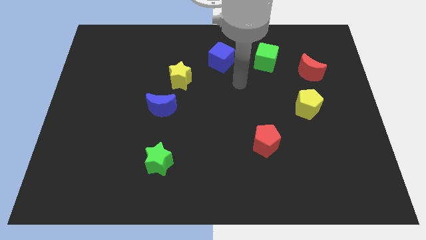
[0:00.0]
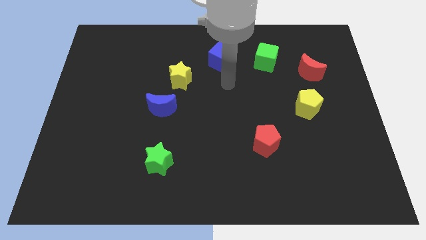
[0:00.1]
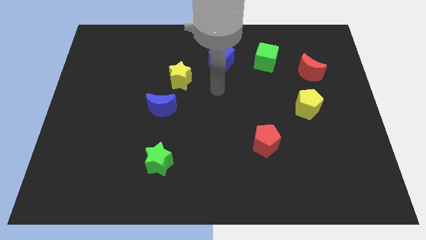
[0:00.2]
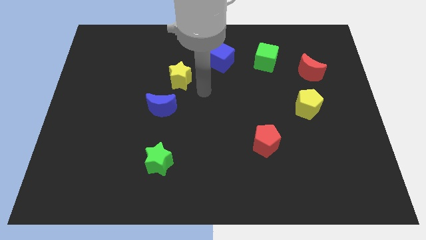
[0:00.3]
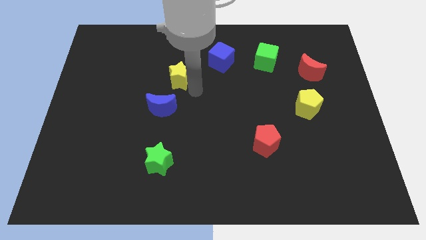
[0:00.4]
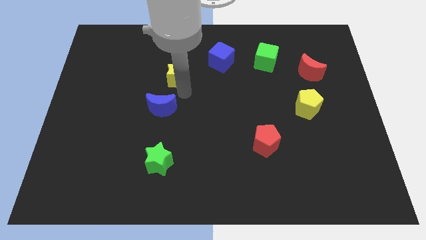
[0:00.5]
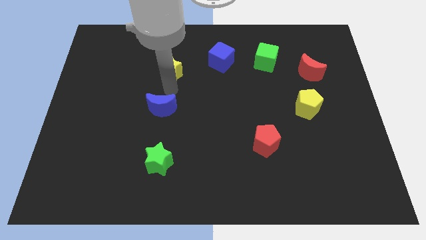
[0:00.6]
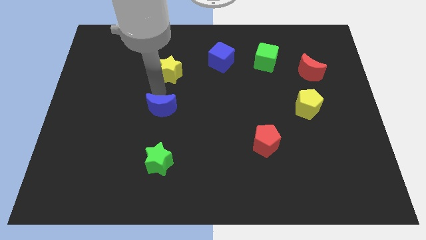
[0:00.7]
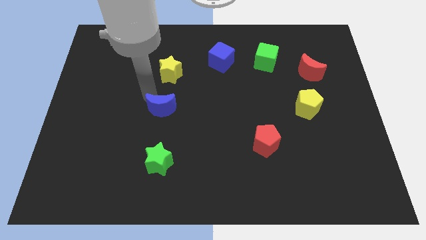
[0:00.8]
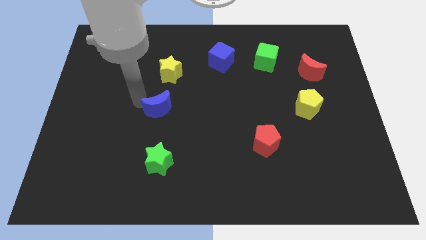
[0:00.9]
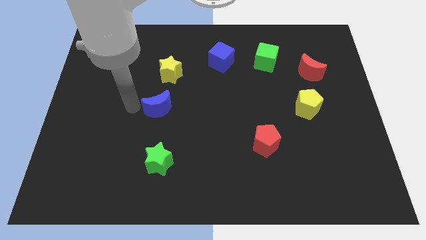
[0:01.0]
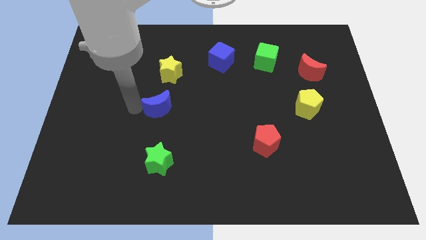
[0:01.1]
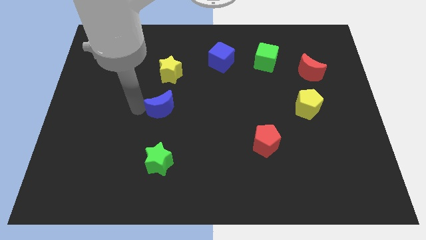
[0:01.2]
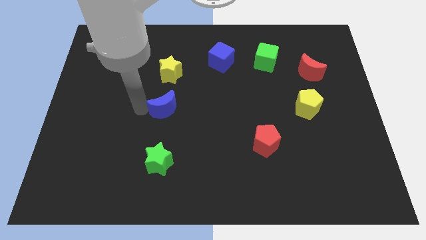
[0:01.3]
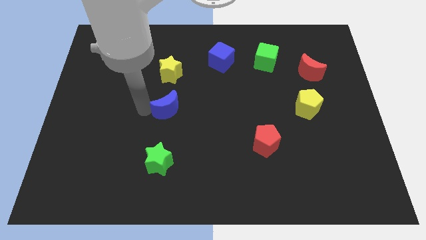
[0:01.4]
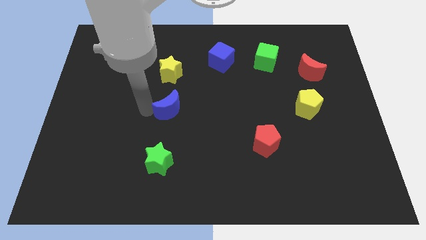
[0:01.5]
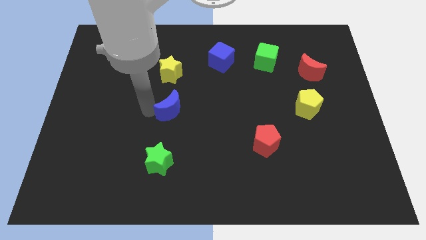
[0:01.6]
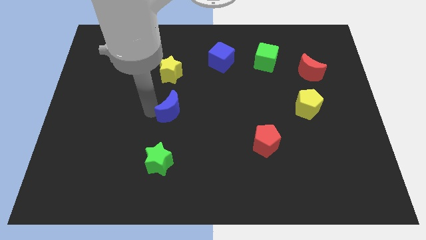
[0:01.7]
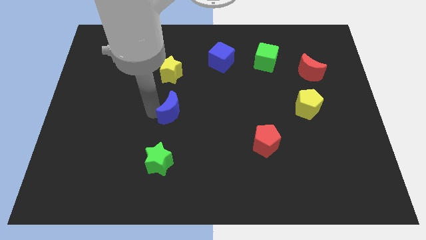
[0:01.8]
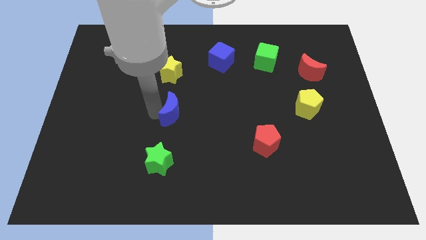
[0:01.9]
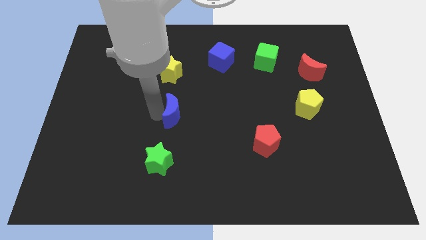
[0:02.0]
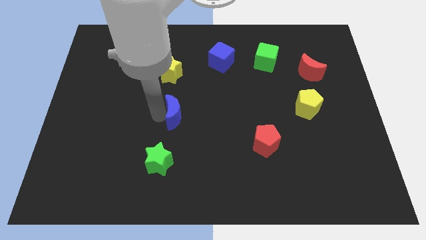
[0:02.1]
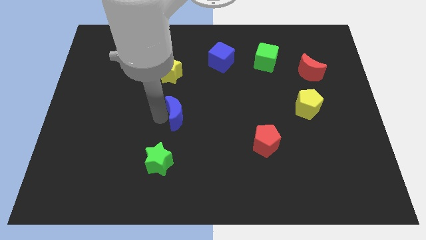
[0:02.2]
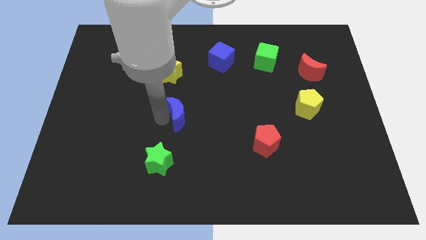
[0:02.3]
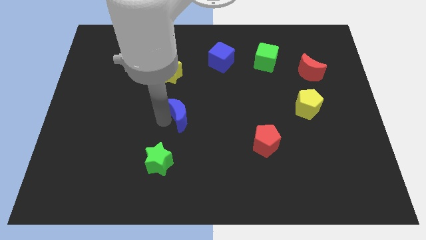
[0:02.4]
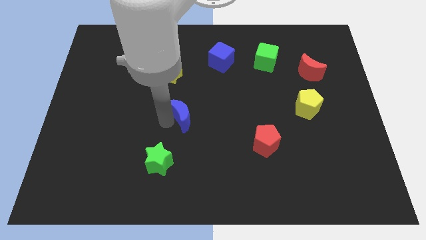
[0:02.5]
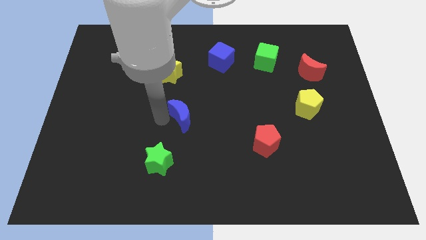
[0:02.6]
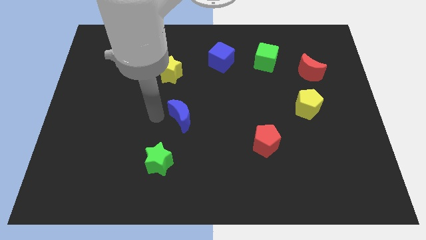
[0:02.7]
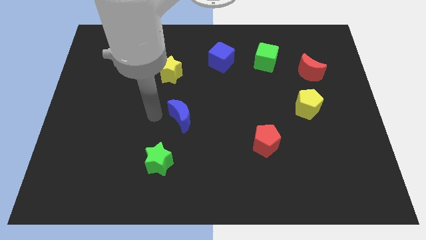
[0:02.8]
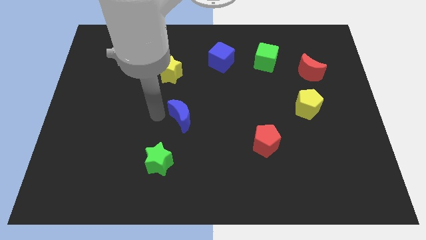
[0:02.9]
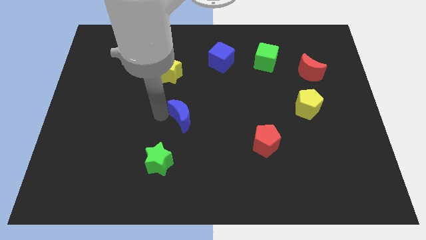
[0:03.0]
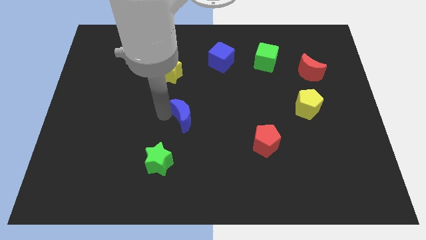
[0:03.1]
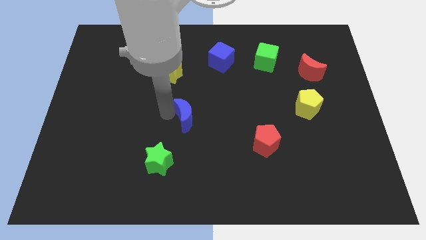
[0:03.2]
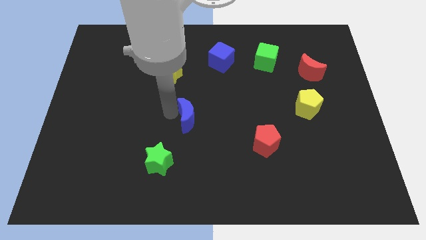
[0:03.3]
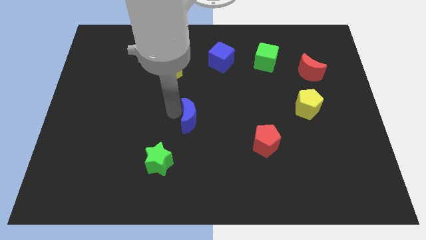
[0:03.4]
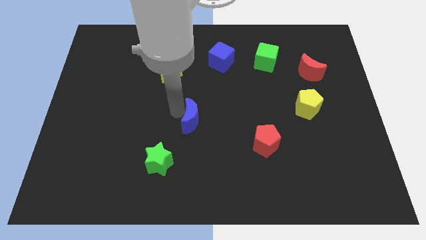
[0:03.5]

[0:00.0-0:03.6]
slide the blue moon a bit to the right

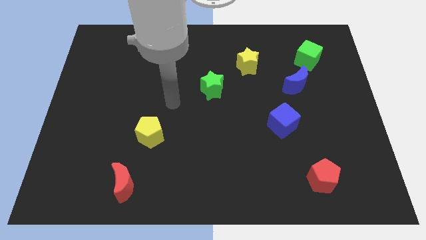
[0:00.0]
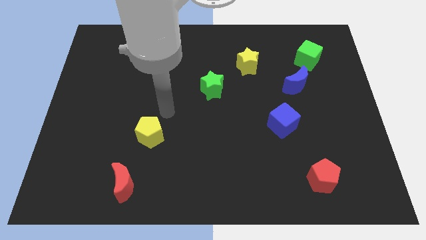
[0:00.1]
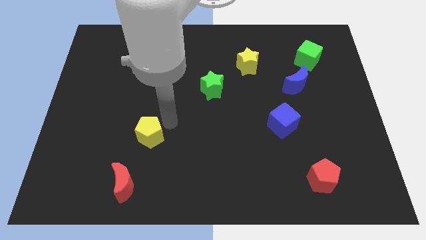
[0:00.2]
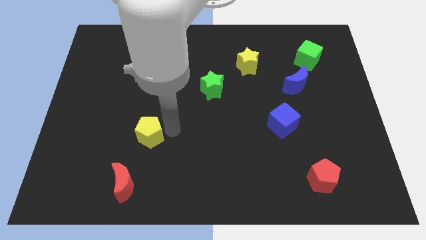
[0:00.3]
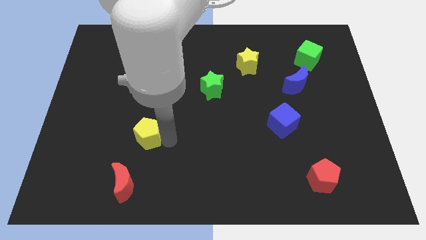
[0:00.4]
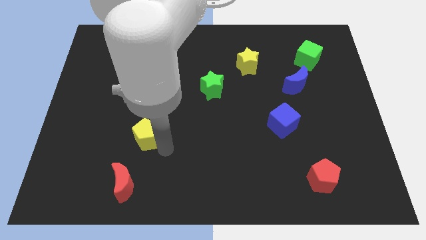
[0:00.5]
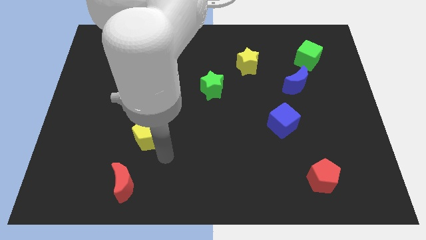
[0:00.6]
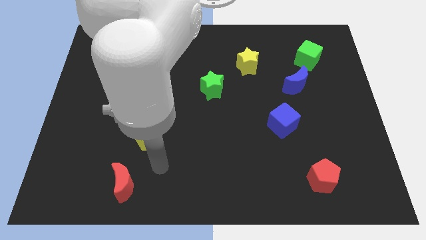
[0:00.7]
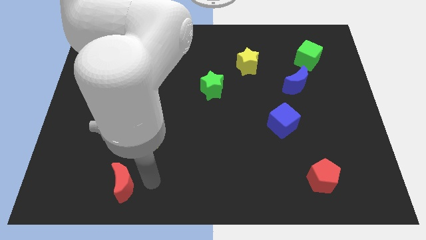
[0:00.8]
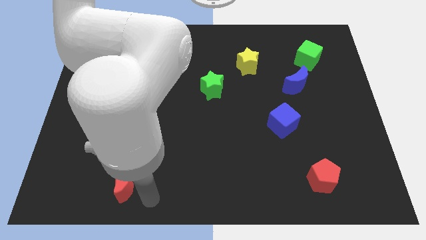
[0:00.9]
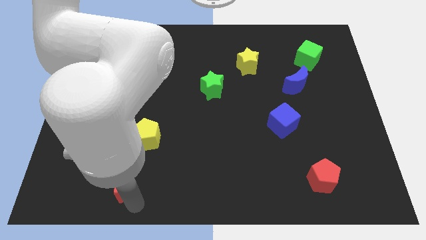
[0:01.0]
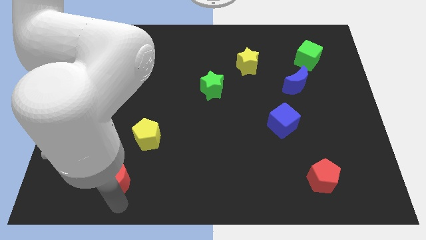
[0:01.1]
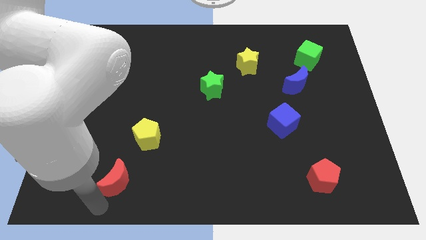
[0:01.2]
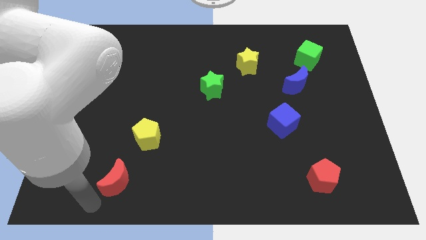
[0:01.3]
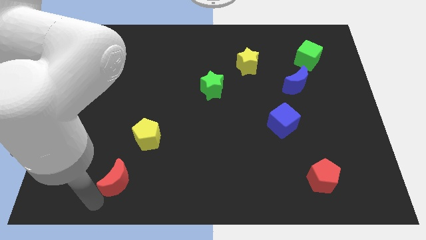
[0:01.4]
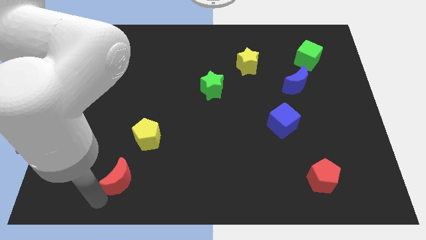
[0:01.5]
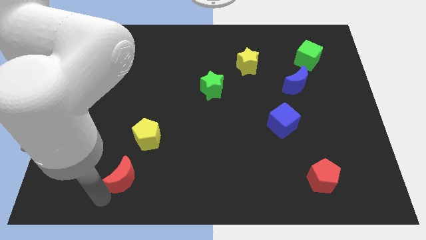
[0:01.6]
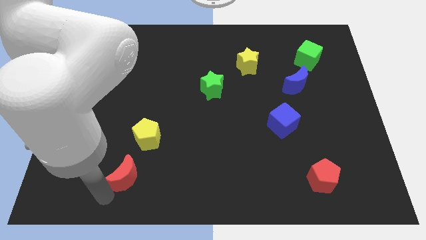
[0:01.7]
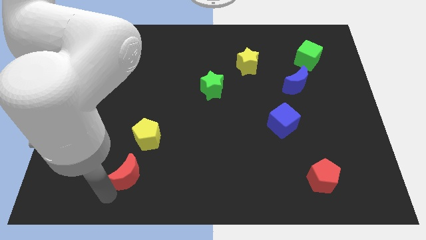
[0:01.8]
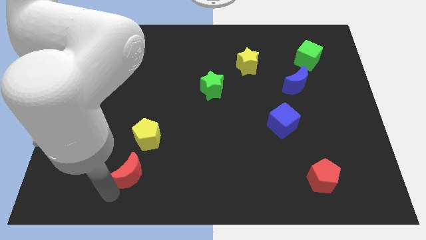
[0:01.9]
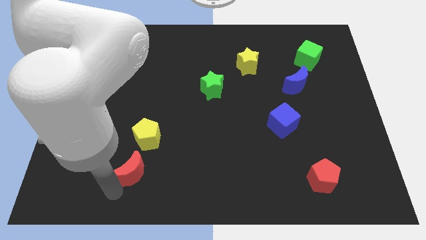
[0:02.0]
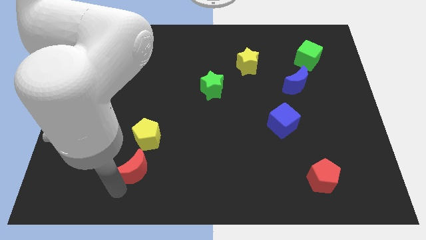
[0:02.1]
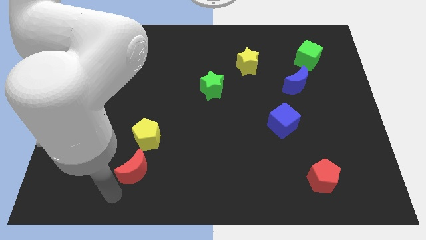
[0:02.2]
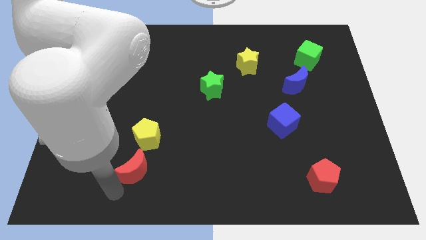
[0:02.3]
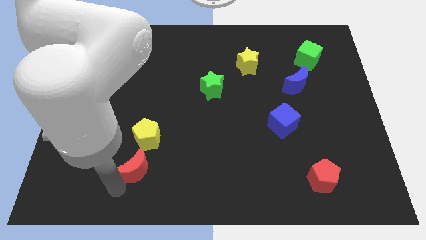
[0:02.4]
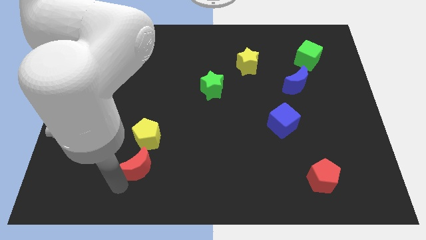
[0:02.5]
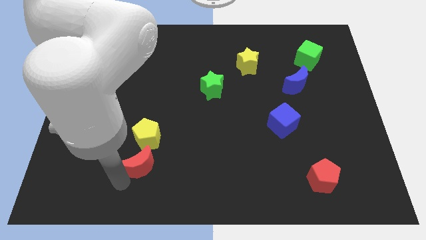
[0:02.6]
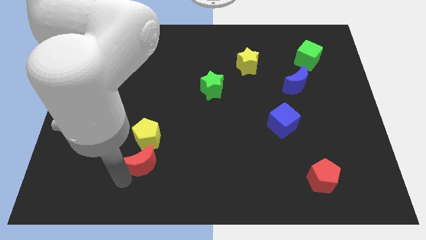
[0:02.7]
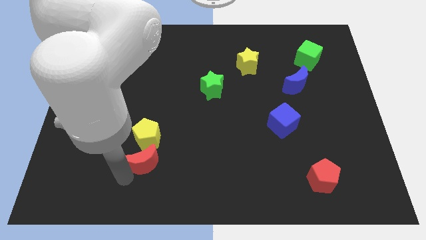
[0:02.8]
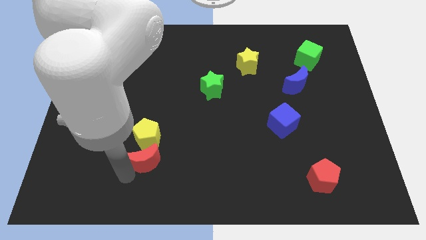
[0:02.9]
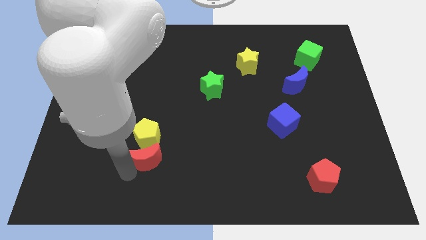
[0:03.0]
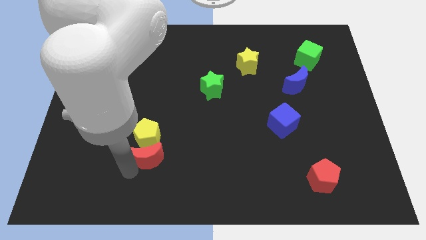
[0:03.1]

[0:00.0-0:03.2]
push the red moon diagonally up and right slightly

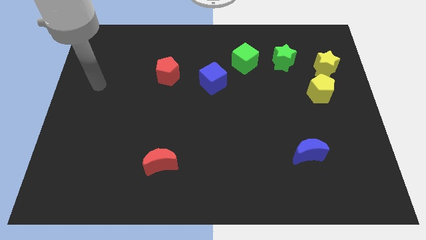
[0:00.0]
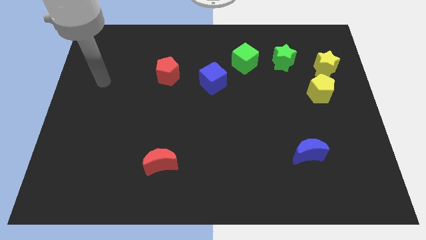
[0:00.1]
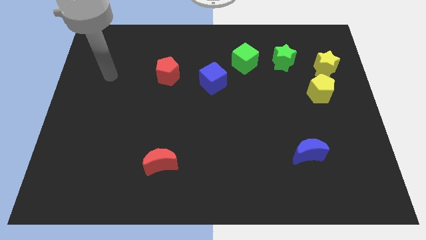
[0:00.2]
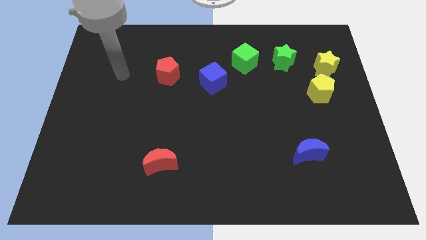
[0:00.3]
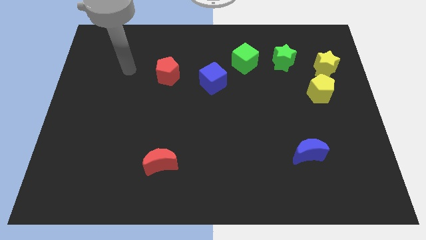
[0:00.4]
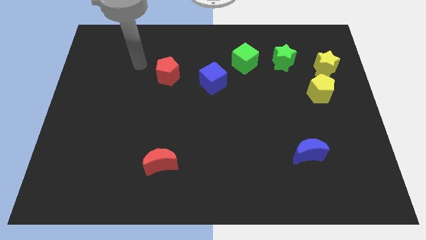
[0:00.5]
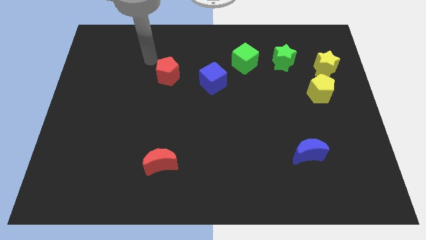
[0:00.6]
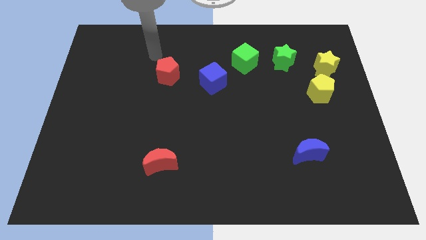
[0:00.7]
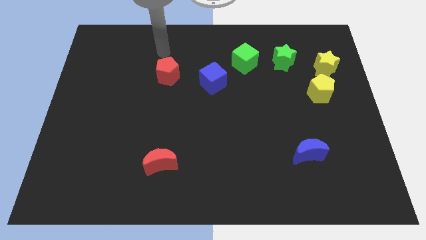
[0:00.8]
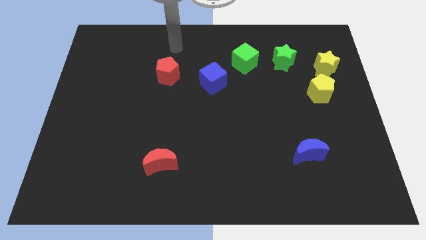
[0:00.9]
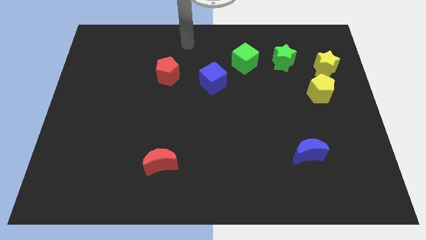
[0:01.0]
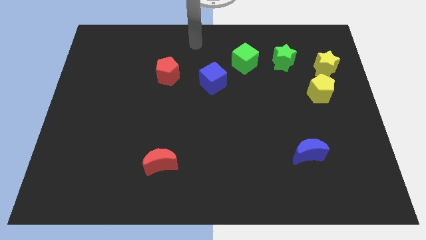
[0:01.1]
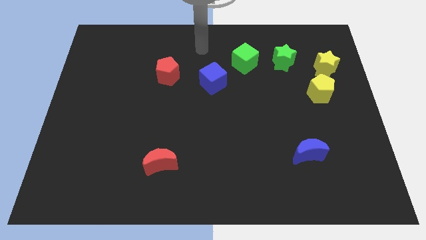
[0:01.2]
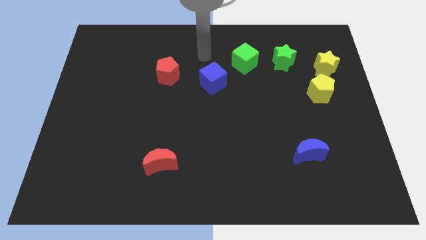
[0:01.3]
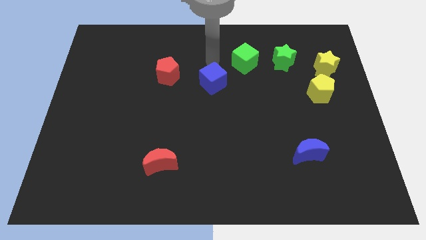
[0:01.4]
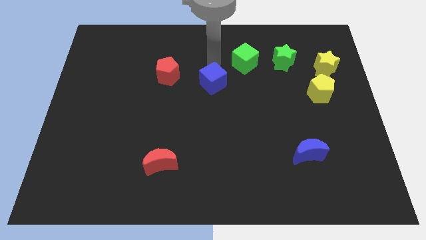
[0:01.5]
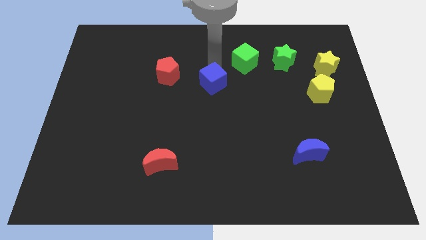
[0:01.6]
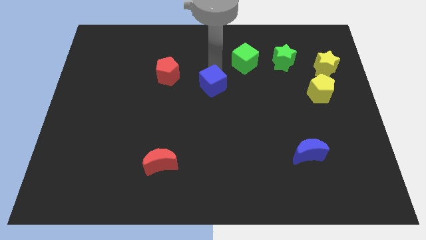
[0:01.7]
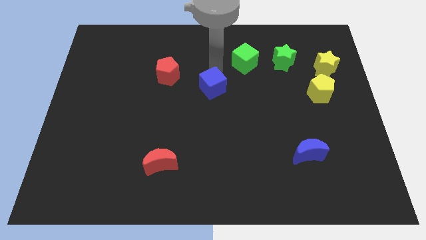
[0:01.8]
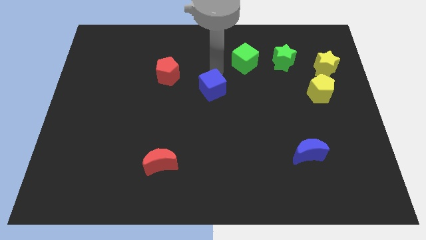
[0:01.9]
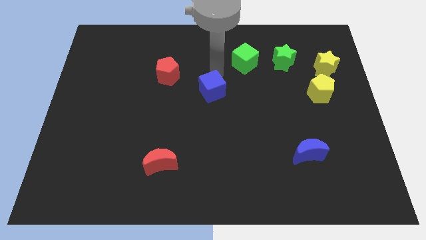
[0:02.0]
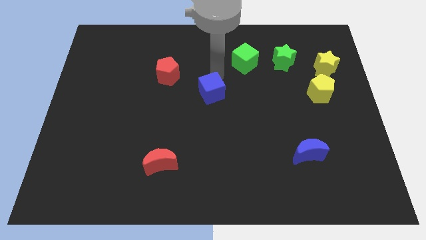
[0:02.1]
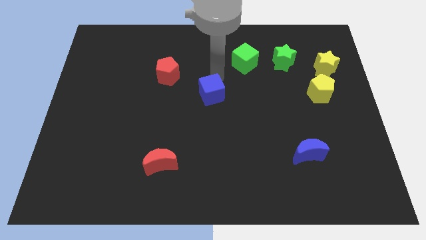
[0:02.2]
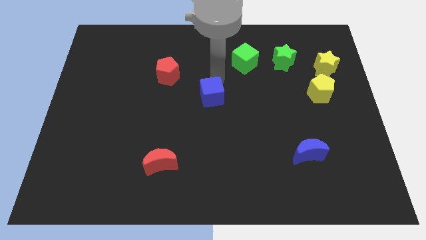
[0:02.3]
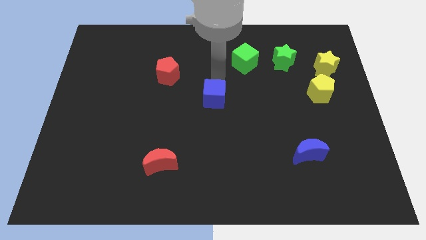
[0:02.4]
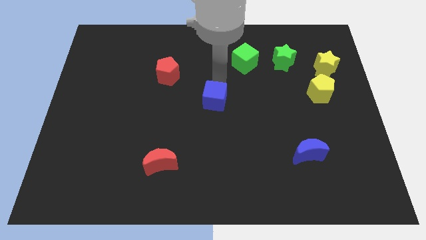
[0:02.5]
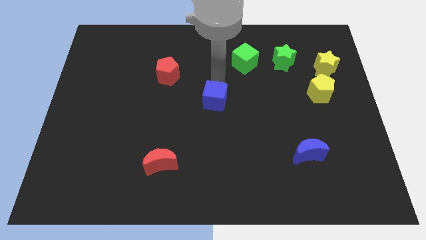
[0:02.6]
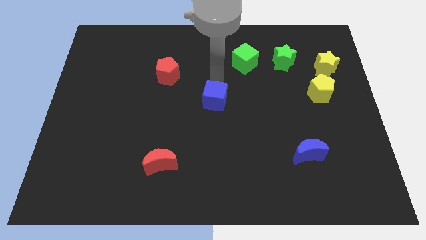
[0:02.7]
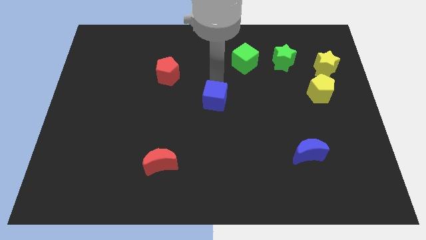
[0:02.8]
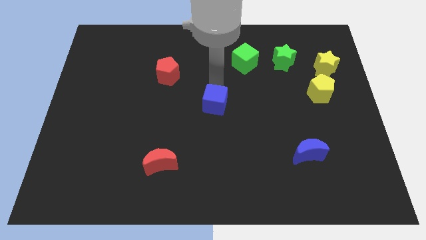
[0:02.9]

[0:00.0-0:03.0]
push the blue cube a little bit down
